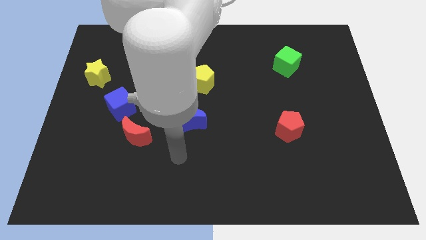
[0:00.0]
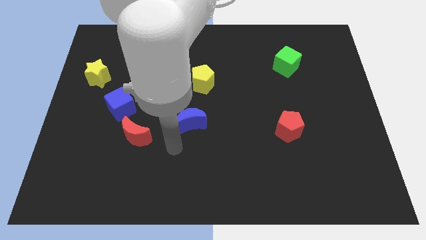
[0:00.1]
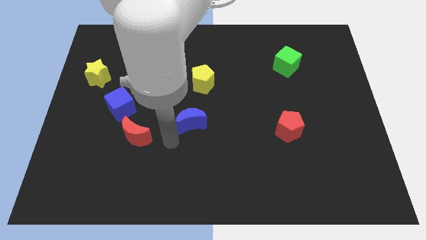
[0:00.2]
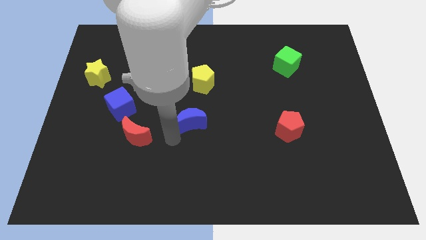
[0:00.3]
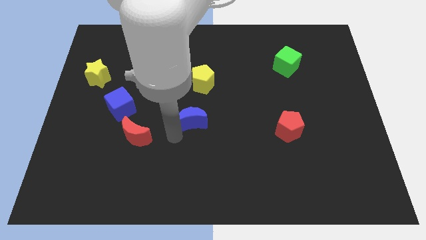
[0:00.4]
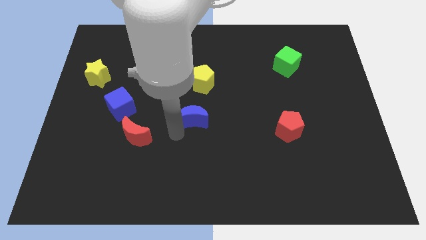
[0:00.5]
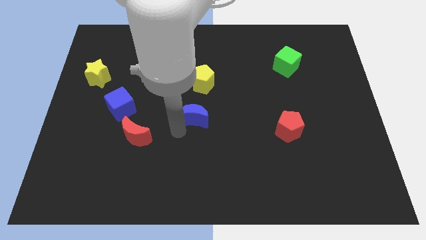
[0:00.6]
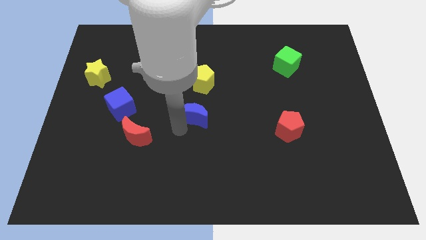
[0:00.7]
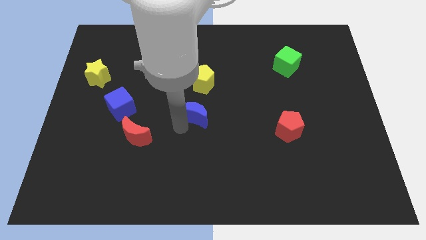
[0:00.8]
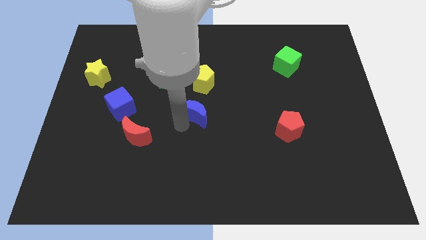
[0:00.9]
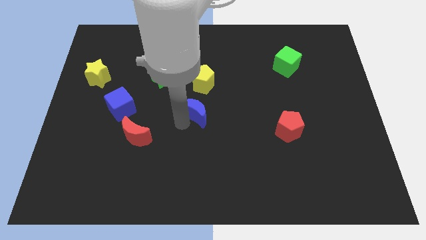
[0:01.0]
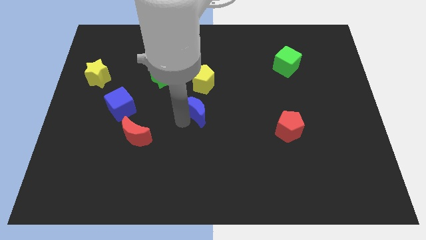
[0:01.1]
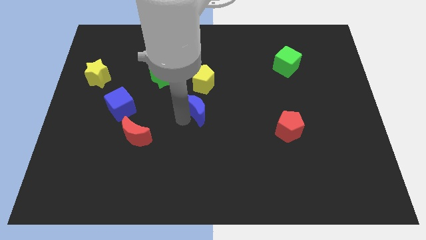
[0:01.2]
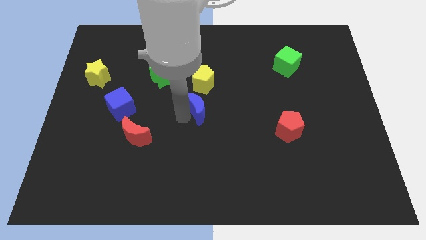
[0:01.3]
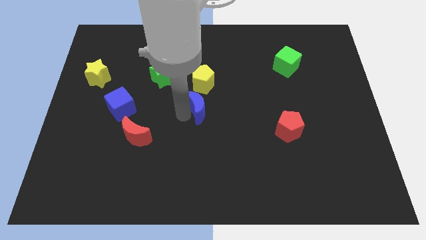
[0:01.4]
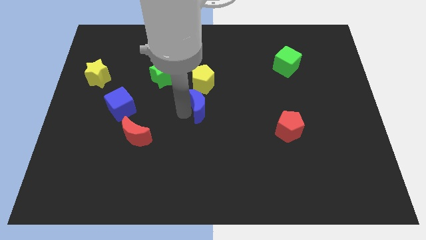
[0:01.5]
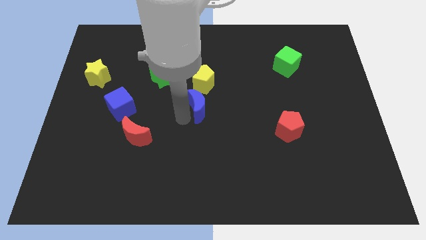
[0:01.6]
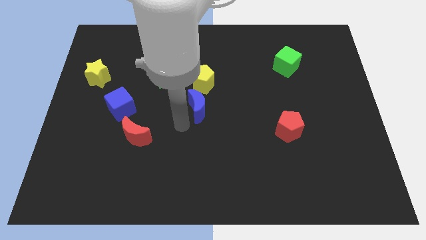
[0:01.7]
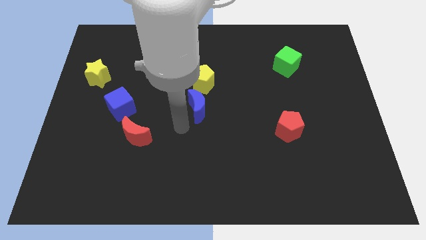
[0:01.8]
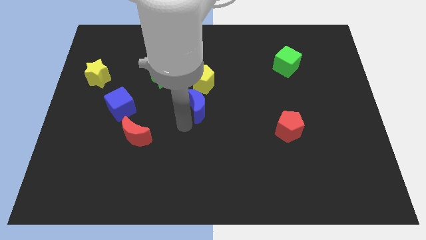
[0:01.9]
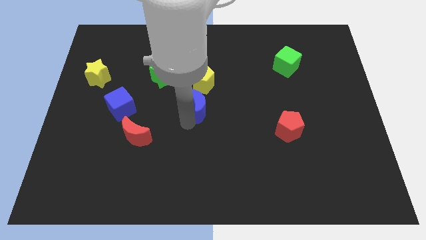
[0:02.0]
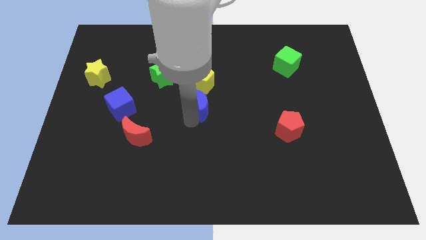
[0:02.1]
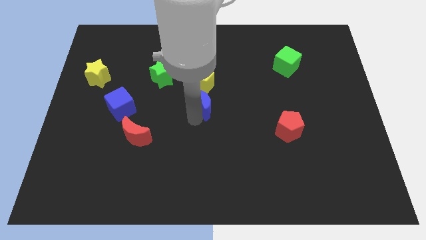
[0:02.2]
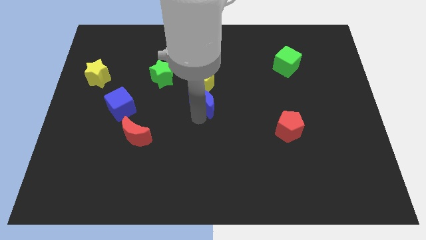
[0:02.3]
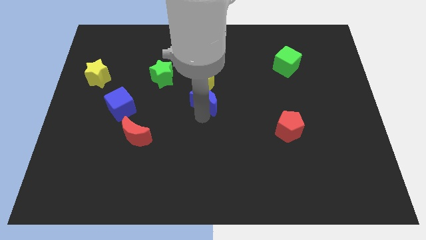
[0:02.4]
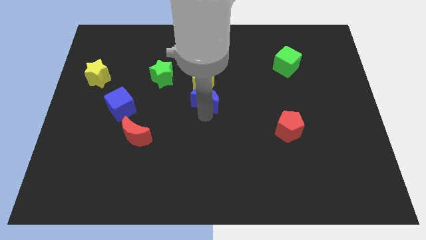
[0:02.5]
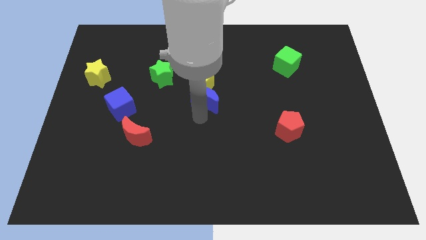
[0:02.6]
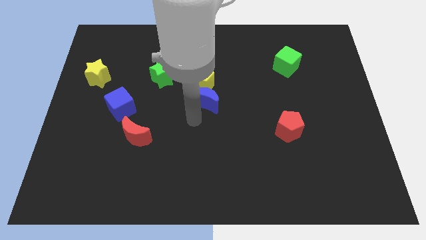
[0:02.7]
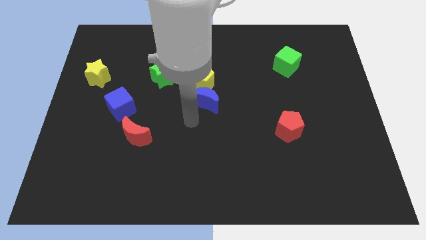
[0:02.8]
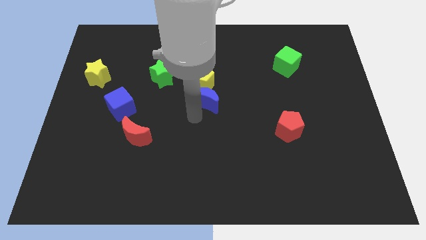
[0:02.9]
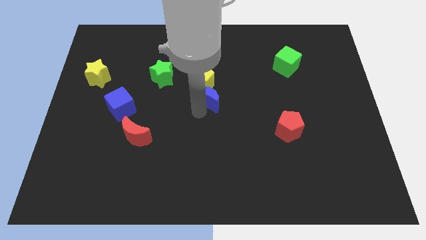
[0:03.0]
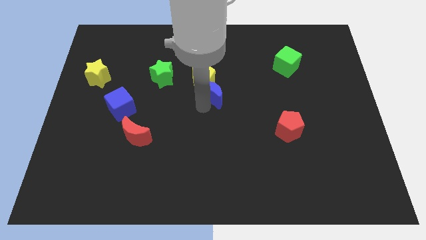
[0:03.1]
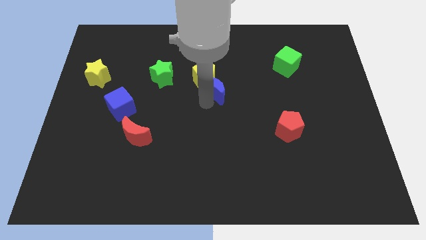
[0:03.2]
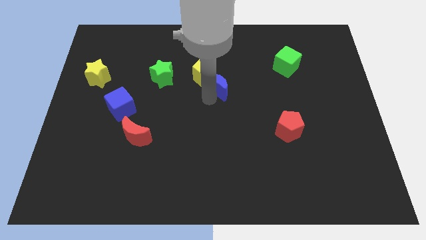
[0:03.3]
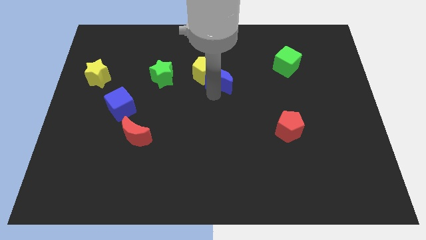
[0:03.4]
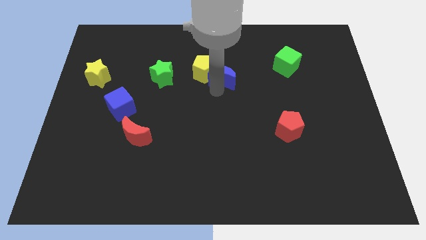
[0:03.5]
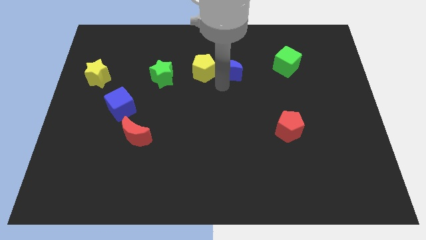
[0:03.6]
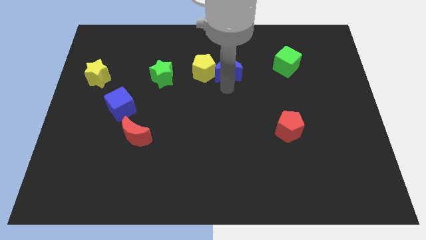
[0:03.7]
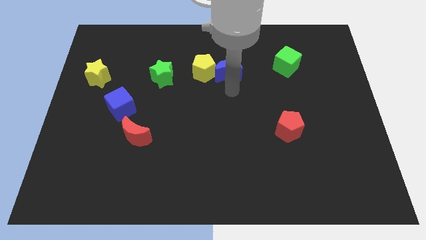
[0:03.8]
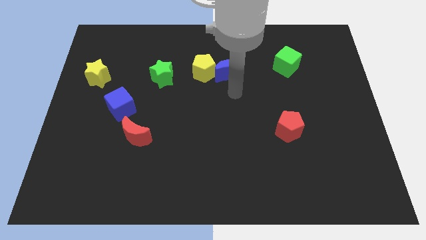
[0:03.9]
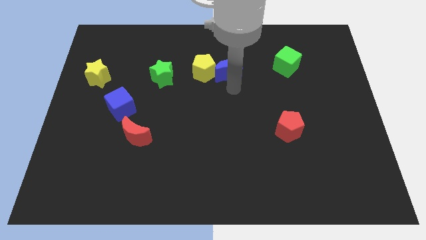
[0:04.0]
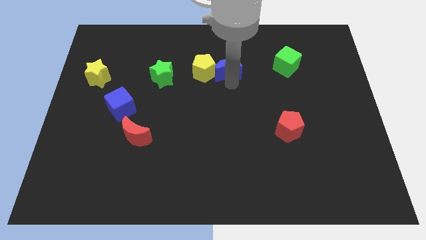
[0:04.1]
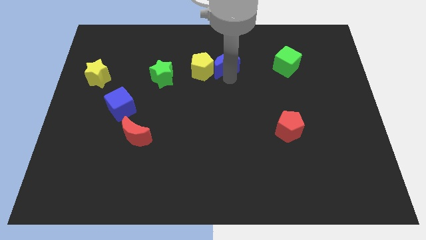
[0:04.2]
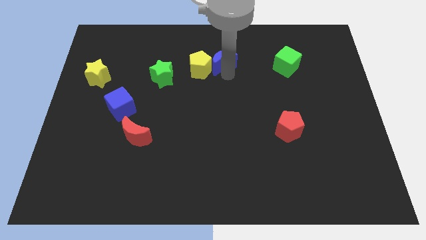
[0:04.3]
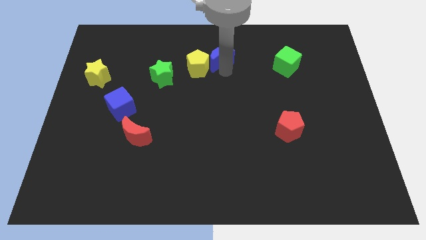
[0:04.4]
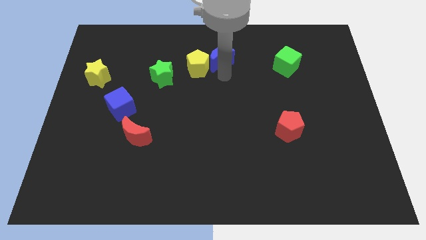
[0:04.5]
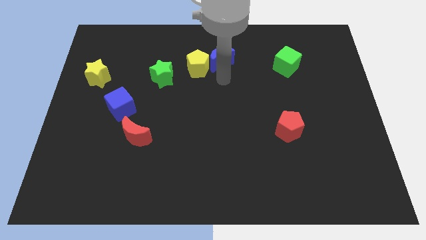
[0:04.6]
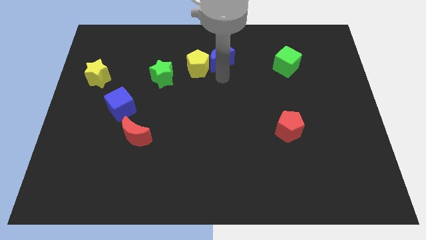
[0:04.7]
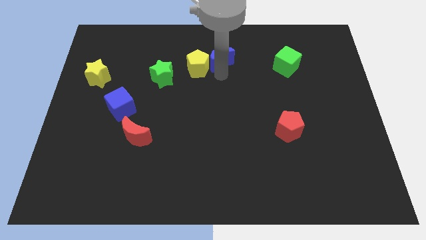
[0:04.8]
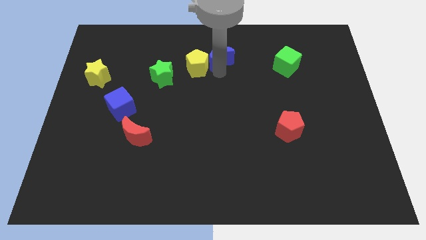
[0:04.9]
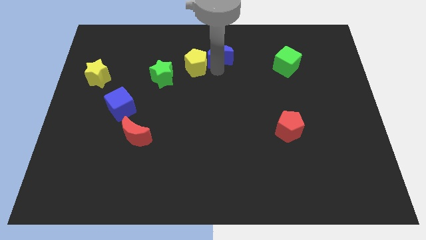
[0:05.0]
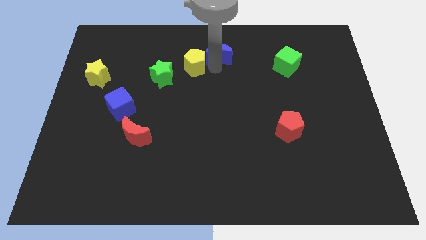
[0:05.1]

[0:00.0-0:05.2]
move the blue moon to the top

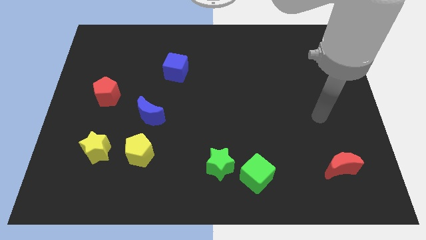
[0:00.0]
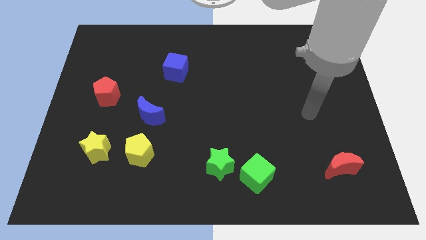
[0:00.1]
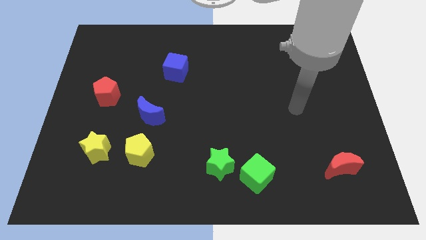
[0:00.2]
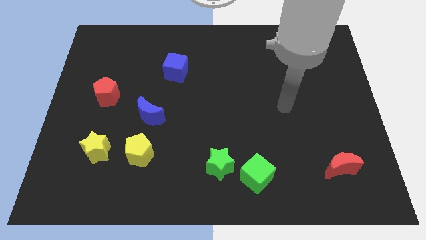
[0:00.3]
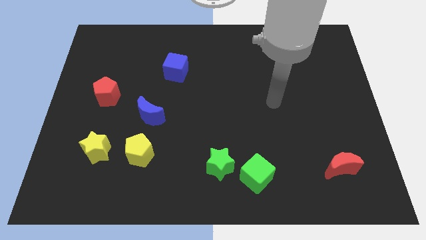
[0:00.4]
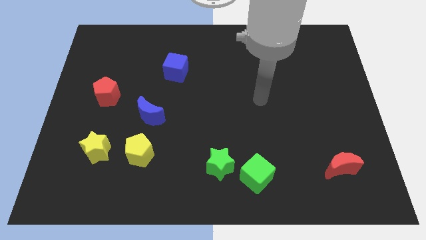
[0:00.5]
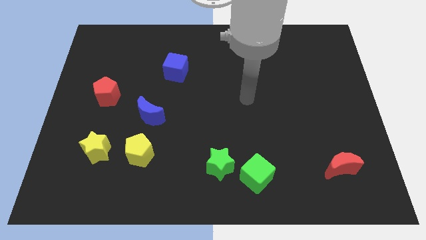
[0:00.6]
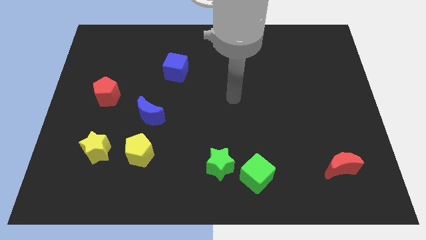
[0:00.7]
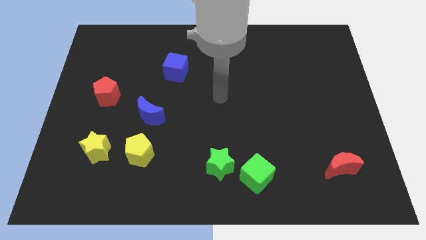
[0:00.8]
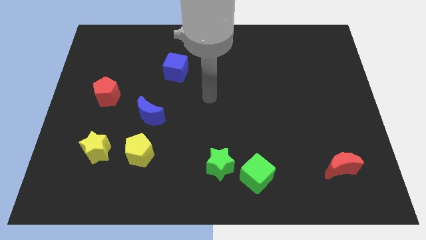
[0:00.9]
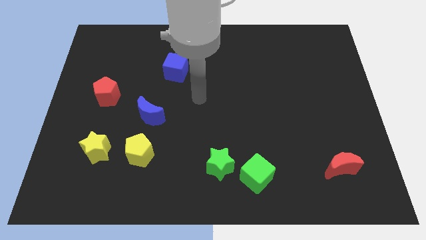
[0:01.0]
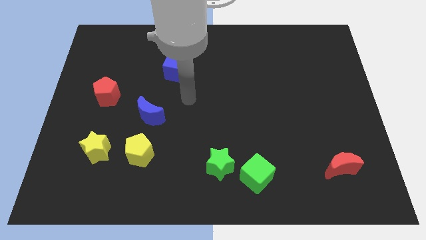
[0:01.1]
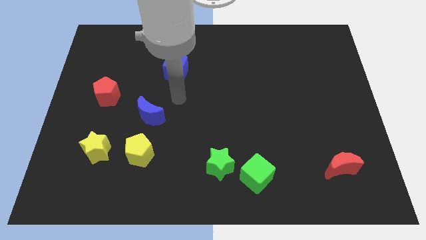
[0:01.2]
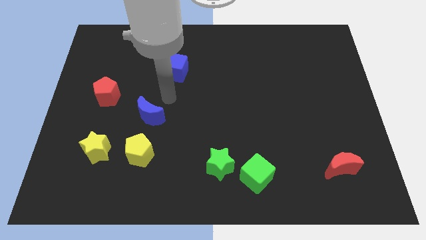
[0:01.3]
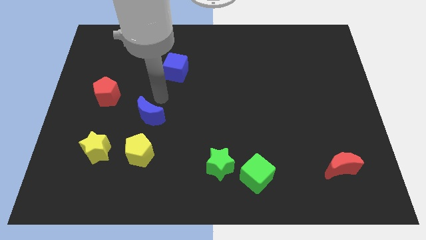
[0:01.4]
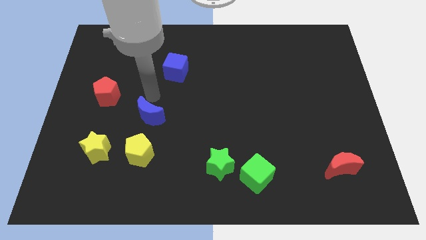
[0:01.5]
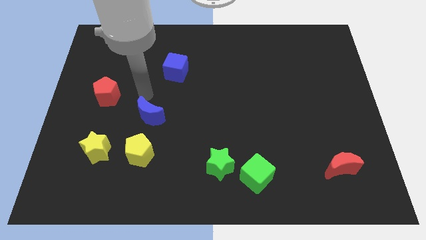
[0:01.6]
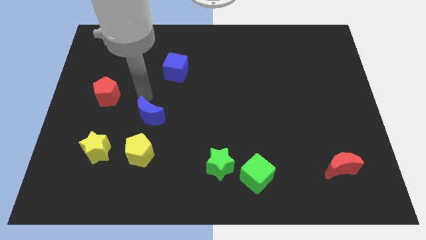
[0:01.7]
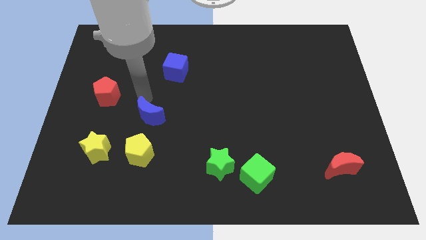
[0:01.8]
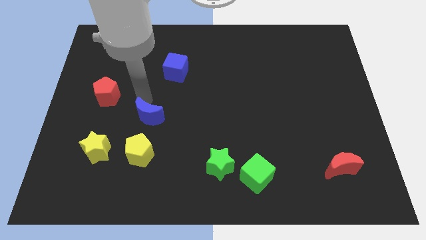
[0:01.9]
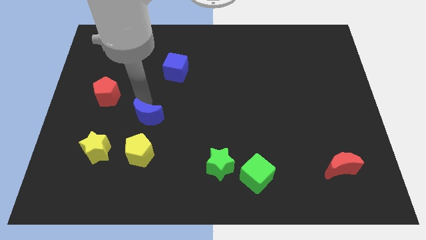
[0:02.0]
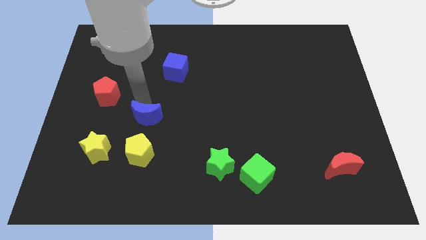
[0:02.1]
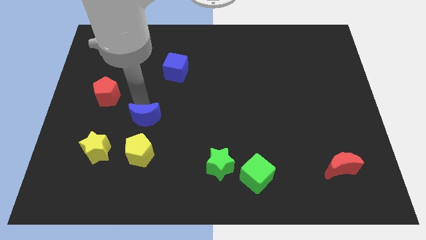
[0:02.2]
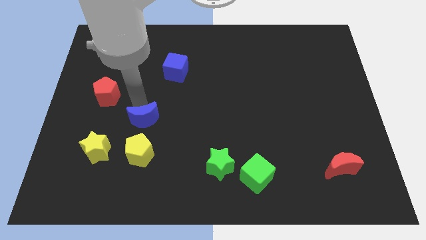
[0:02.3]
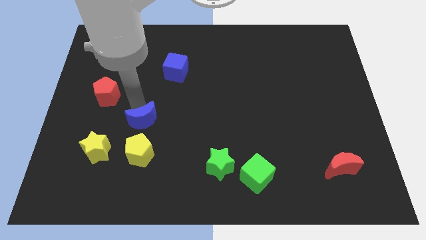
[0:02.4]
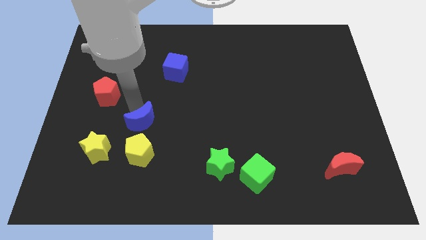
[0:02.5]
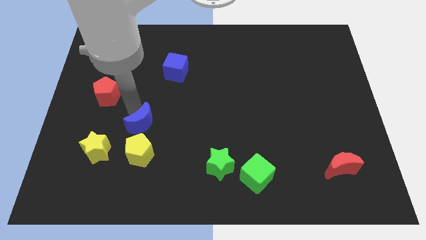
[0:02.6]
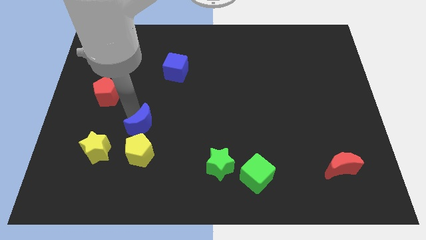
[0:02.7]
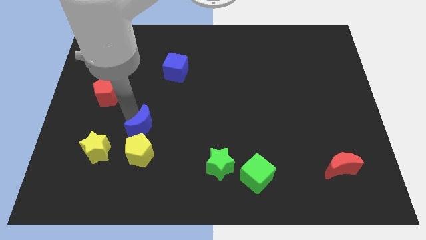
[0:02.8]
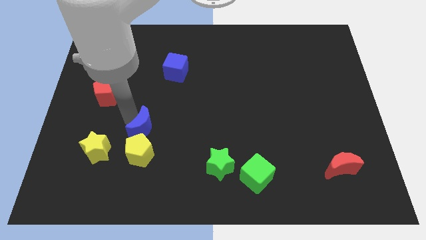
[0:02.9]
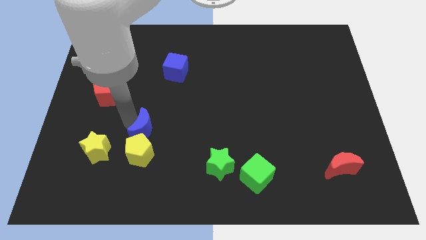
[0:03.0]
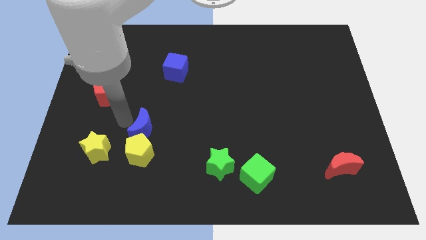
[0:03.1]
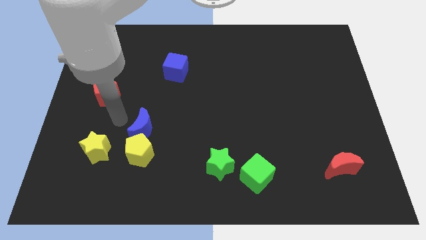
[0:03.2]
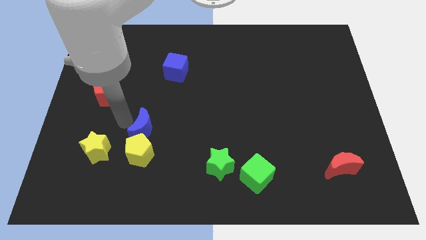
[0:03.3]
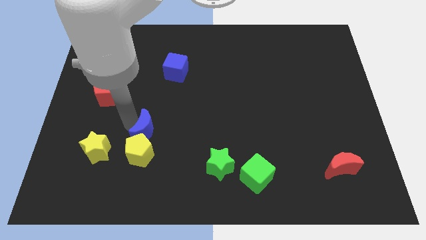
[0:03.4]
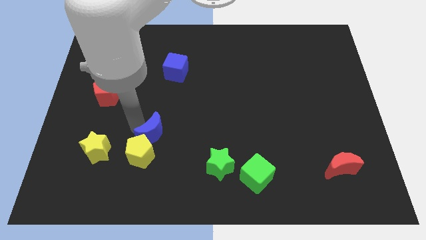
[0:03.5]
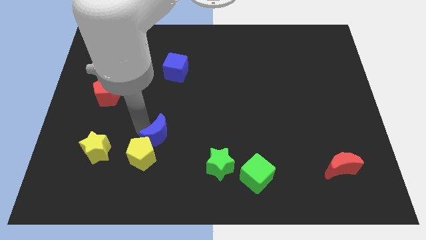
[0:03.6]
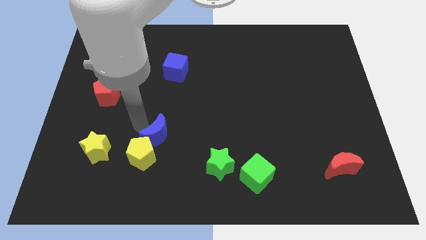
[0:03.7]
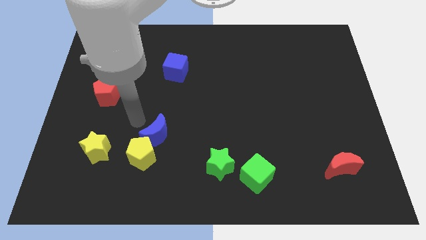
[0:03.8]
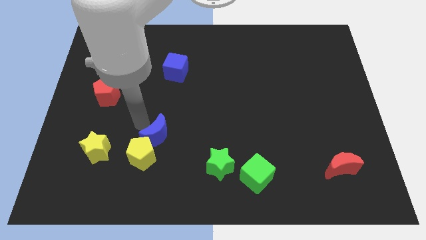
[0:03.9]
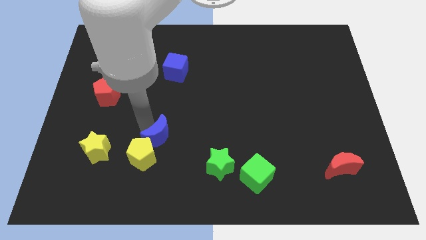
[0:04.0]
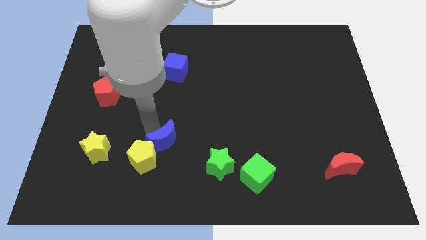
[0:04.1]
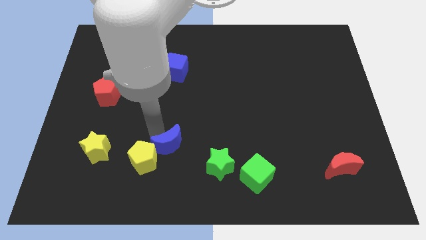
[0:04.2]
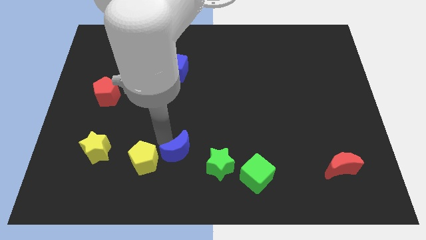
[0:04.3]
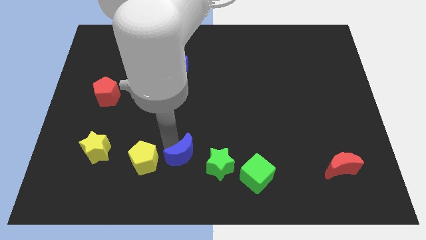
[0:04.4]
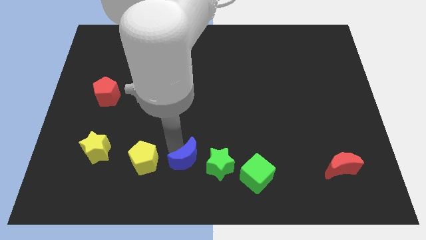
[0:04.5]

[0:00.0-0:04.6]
slide the blue moon to the bottom
